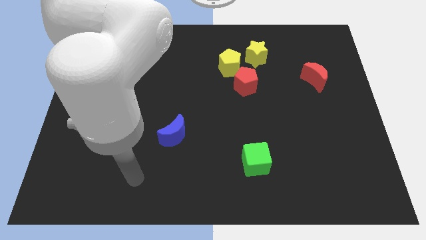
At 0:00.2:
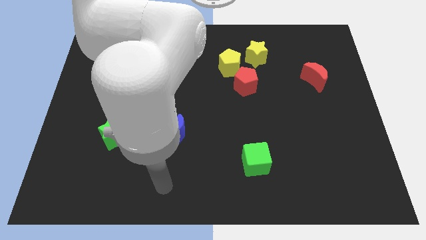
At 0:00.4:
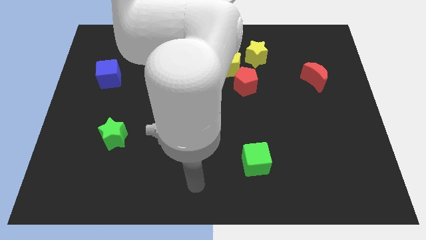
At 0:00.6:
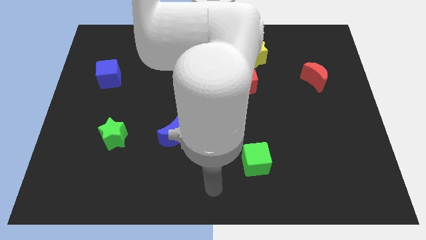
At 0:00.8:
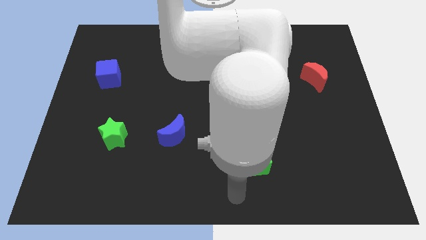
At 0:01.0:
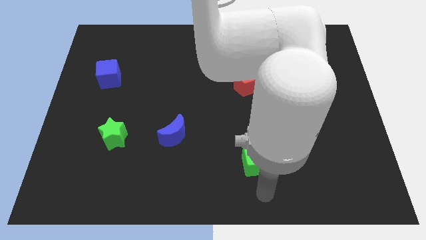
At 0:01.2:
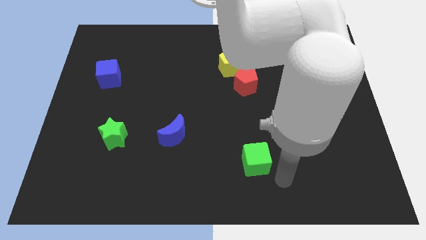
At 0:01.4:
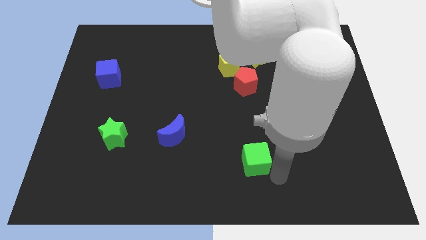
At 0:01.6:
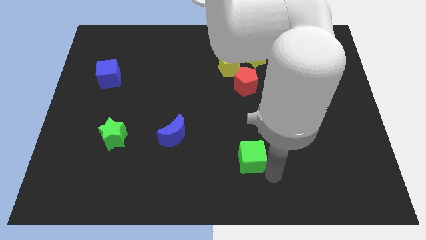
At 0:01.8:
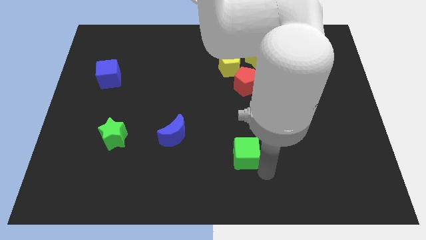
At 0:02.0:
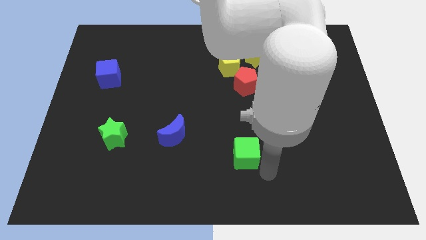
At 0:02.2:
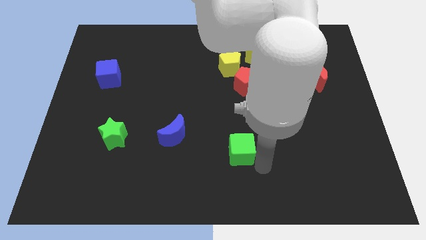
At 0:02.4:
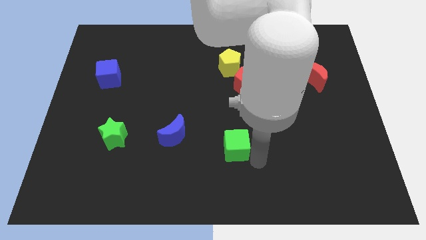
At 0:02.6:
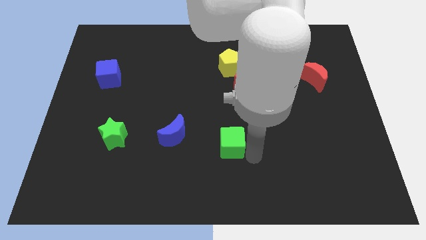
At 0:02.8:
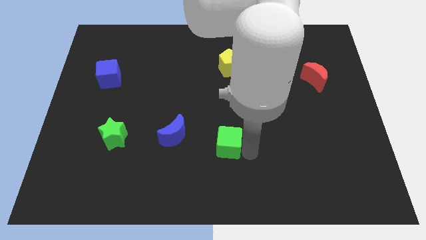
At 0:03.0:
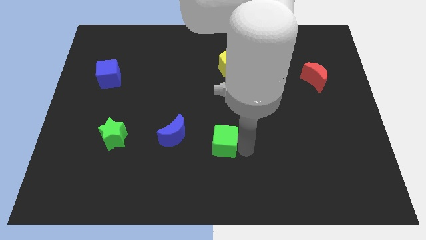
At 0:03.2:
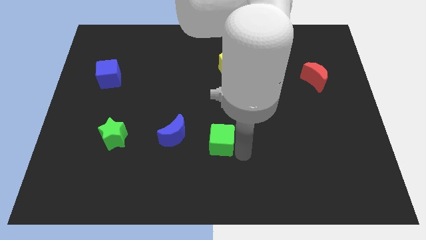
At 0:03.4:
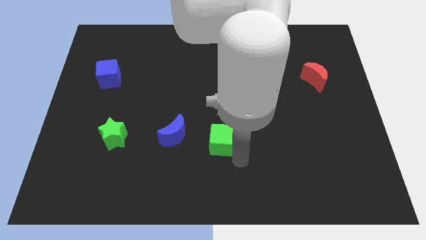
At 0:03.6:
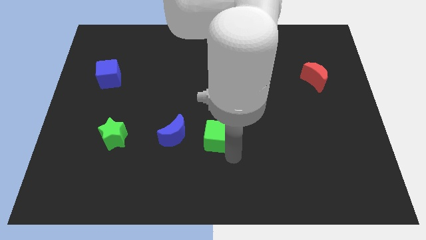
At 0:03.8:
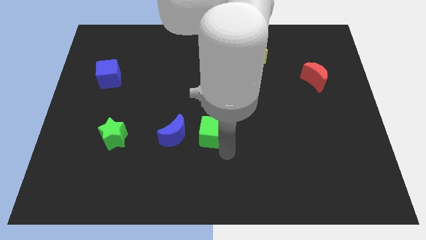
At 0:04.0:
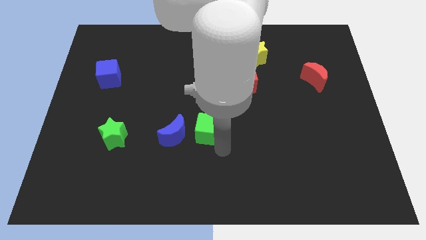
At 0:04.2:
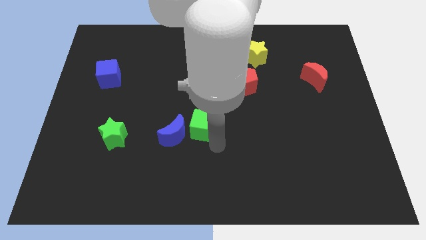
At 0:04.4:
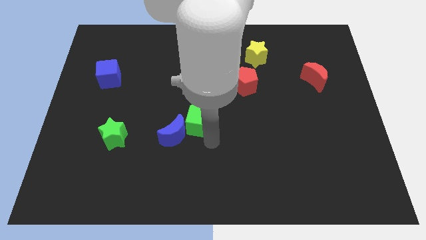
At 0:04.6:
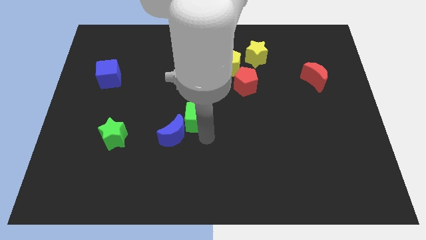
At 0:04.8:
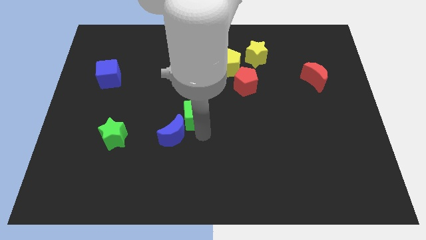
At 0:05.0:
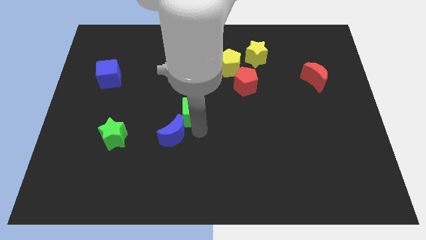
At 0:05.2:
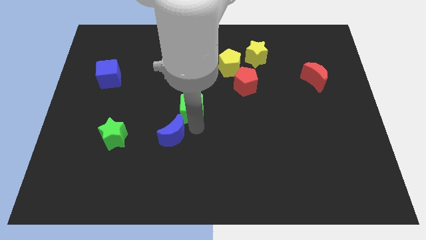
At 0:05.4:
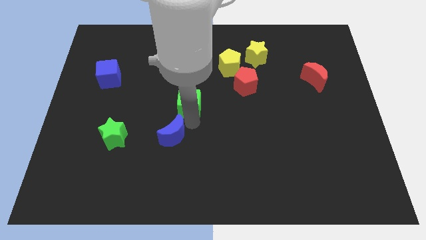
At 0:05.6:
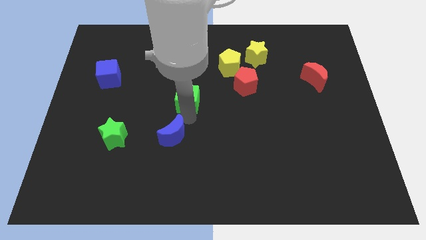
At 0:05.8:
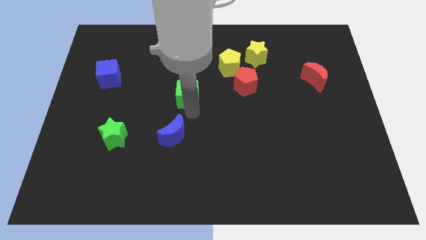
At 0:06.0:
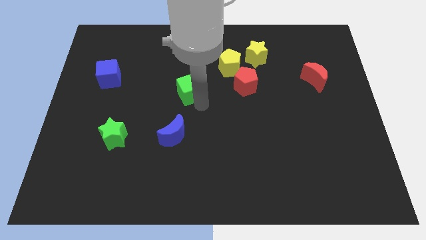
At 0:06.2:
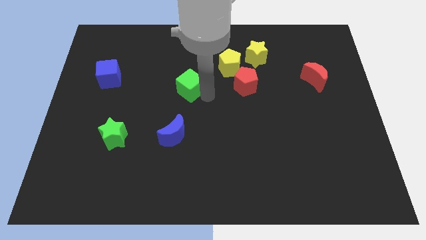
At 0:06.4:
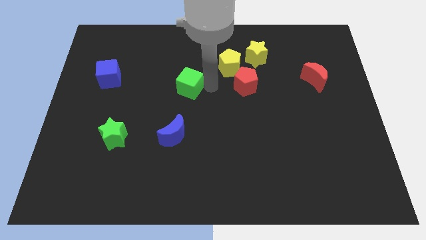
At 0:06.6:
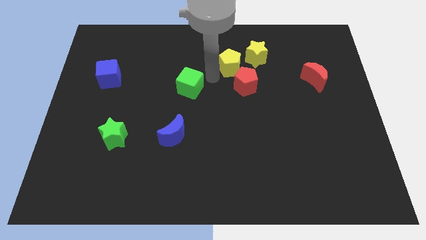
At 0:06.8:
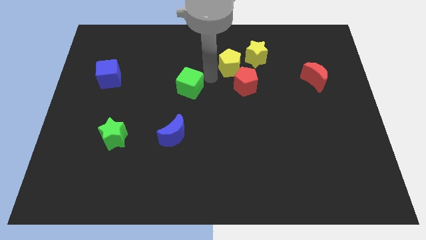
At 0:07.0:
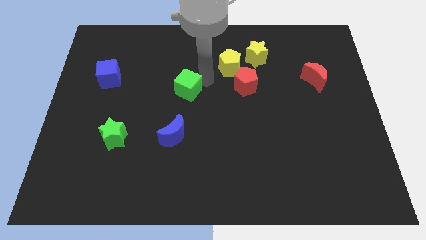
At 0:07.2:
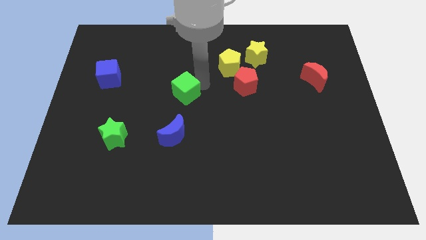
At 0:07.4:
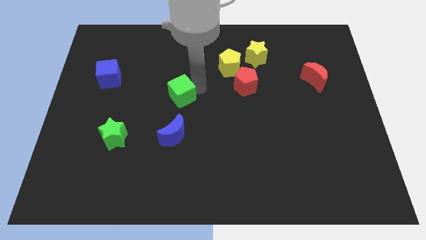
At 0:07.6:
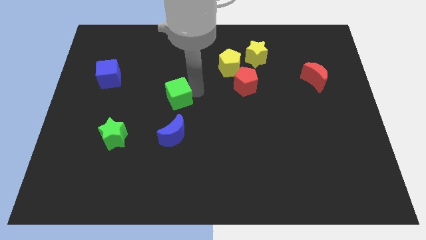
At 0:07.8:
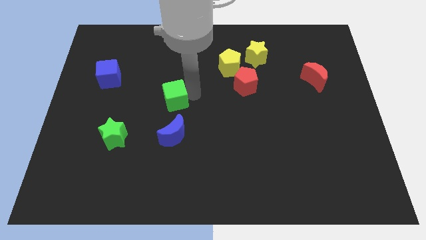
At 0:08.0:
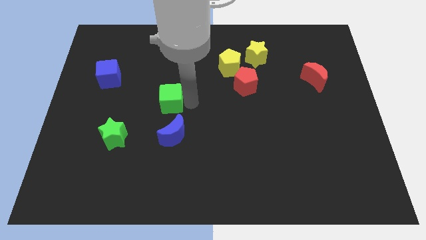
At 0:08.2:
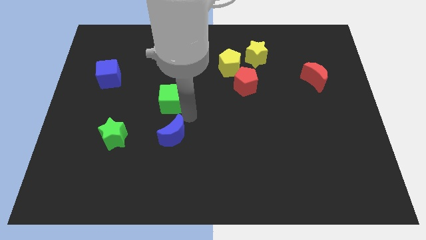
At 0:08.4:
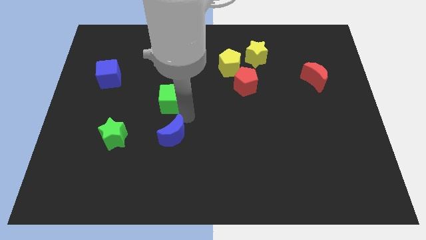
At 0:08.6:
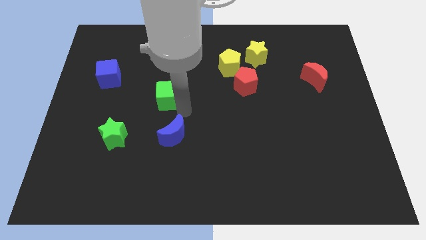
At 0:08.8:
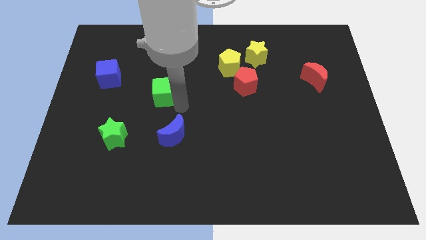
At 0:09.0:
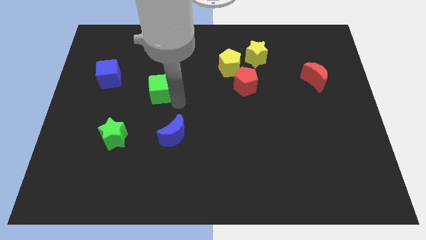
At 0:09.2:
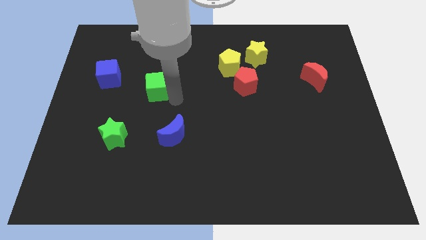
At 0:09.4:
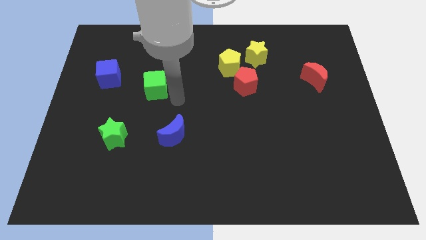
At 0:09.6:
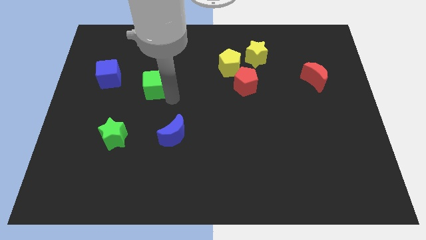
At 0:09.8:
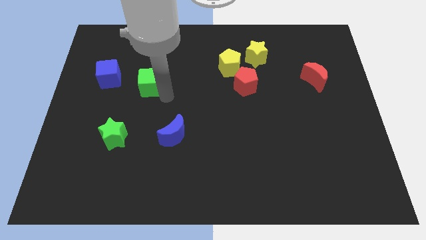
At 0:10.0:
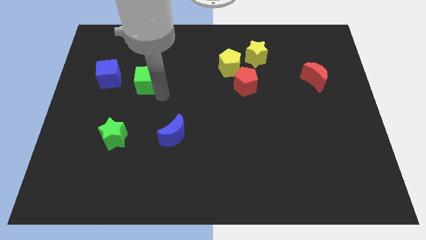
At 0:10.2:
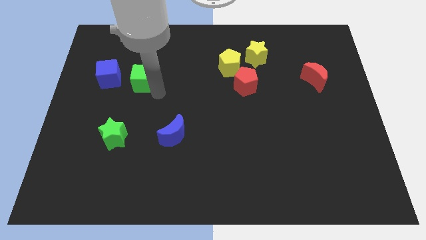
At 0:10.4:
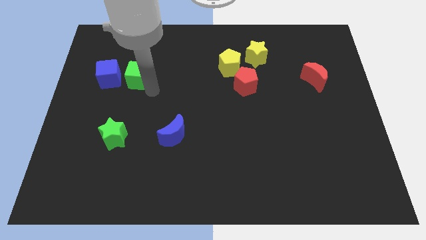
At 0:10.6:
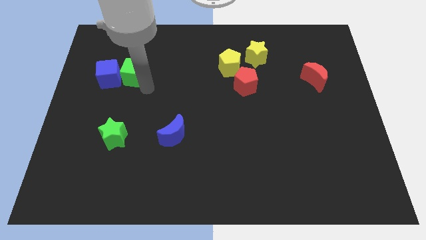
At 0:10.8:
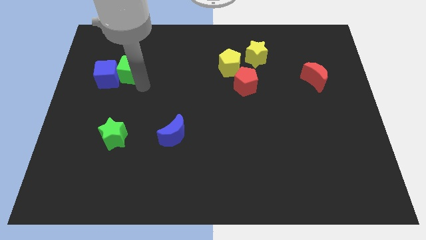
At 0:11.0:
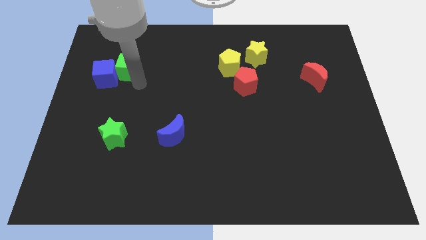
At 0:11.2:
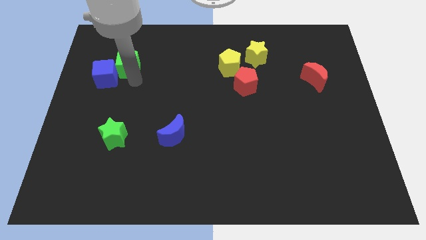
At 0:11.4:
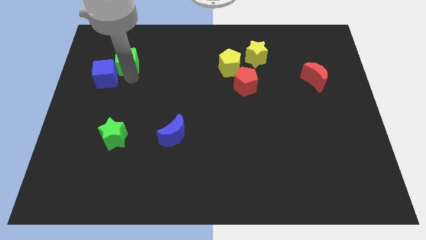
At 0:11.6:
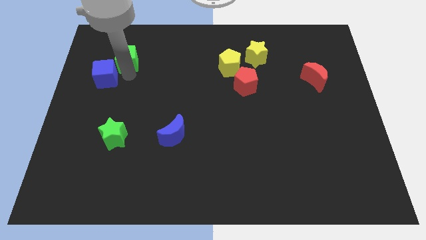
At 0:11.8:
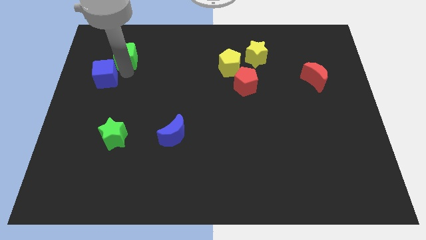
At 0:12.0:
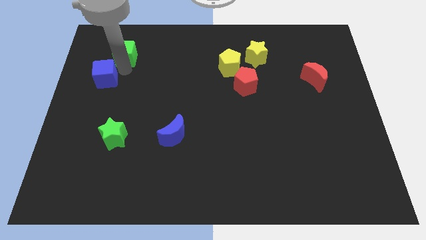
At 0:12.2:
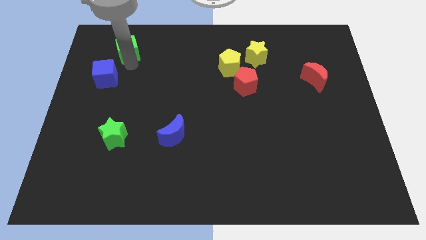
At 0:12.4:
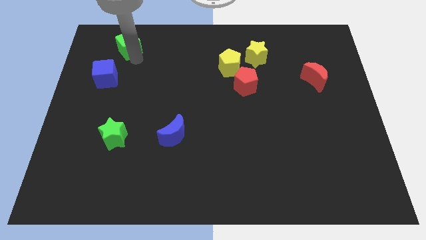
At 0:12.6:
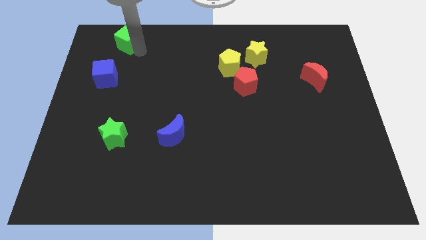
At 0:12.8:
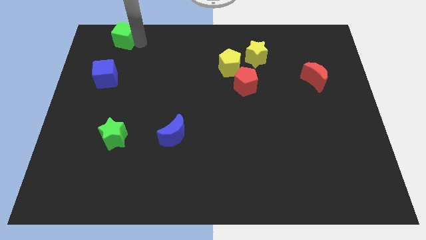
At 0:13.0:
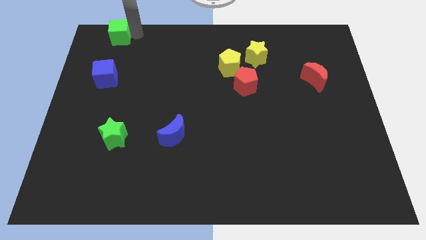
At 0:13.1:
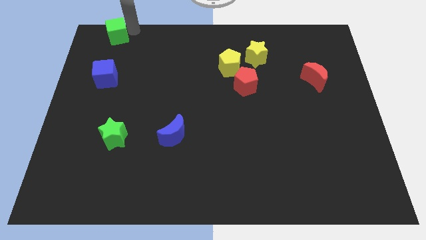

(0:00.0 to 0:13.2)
move the green cube to the top left corner
